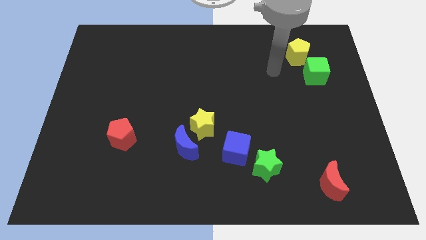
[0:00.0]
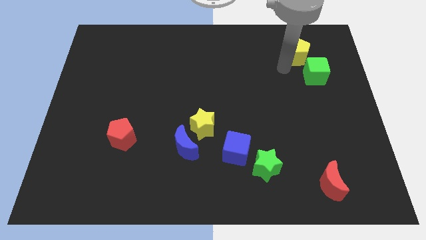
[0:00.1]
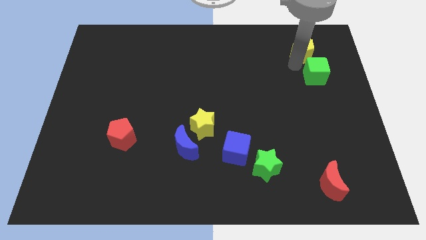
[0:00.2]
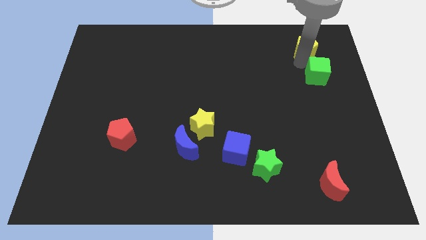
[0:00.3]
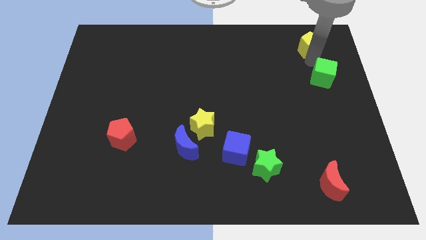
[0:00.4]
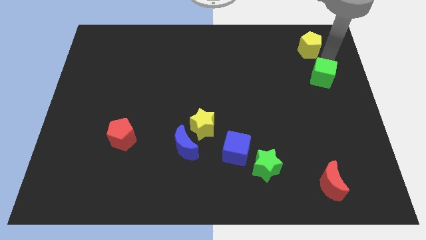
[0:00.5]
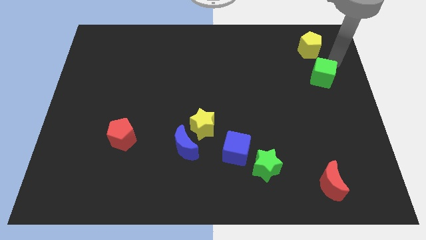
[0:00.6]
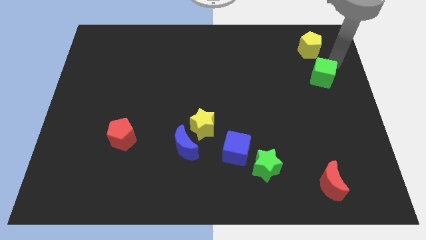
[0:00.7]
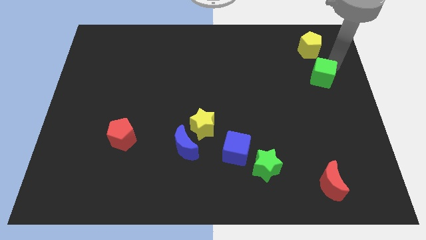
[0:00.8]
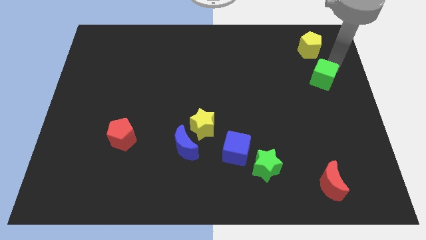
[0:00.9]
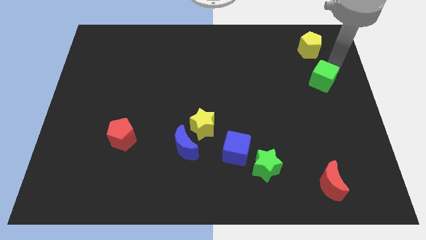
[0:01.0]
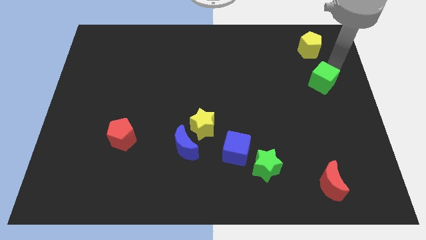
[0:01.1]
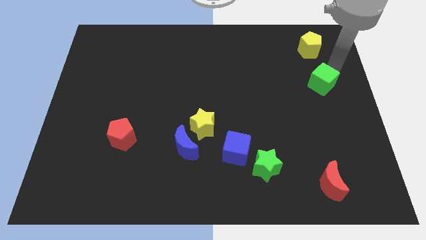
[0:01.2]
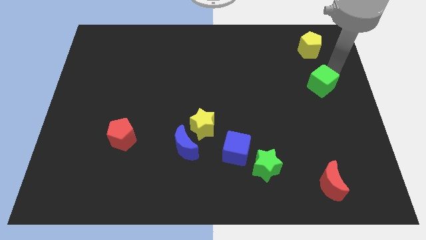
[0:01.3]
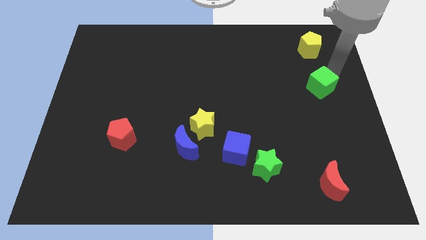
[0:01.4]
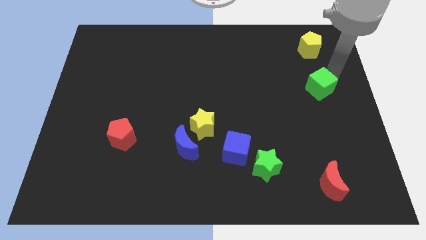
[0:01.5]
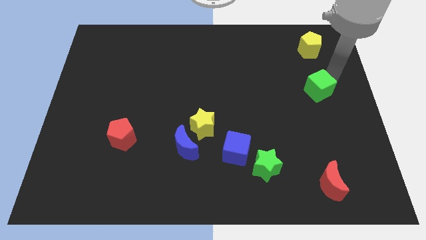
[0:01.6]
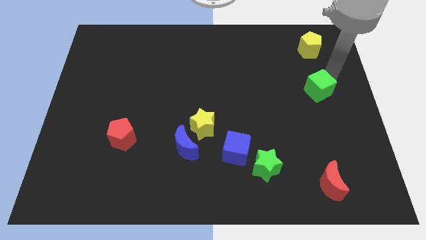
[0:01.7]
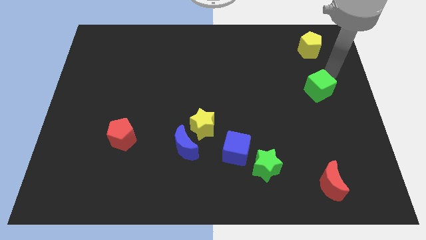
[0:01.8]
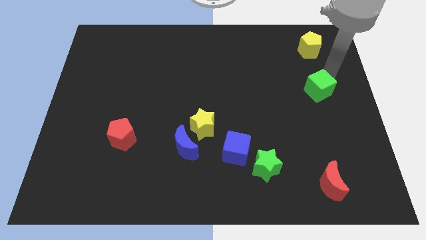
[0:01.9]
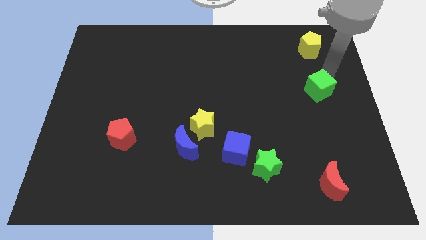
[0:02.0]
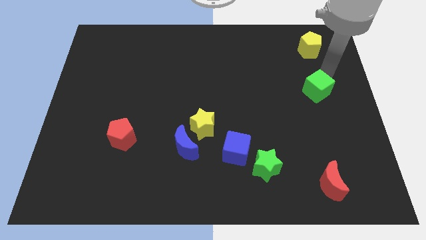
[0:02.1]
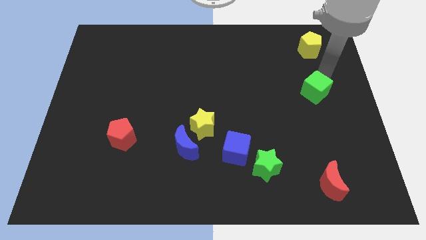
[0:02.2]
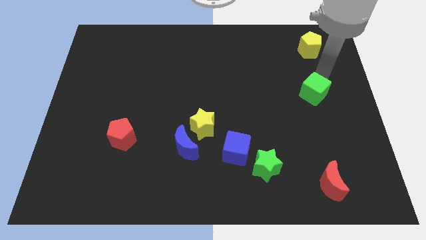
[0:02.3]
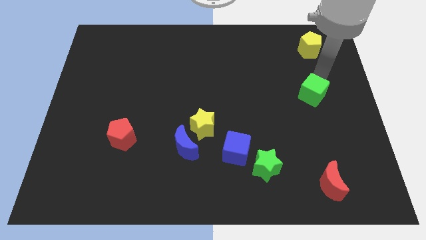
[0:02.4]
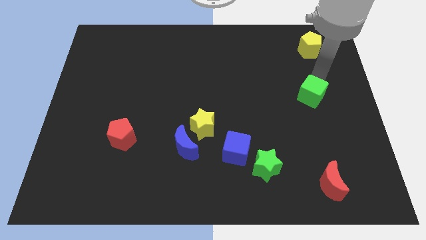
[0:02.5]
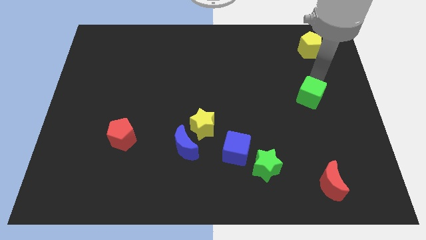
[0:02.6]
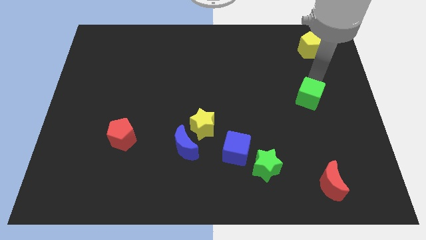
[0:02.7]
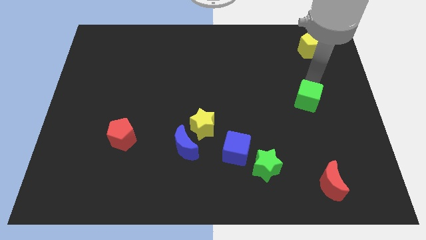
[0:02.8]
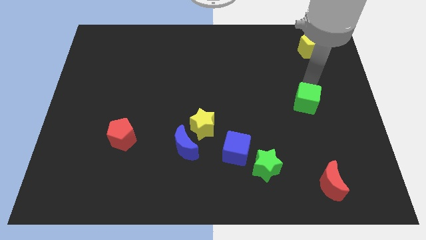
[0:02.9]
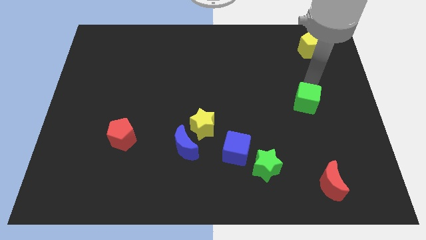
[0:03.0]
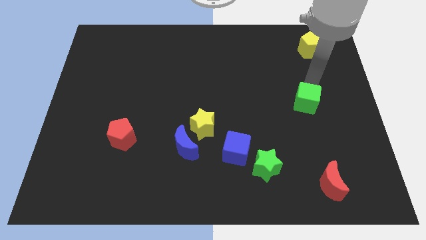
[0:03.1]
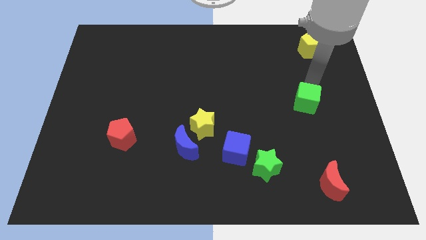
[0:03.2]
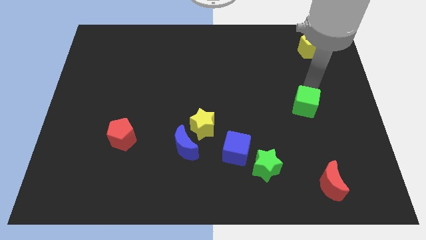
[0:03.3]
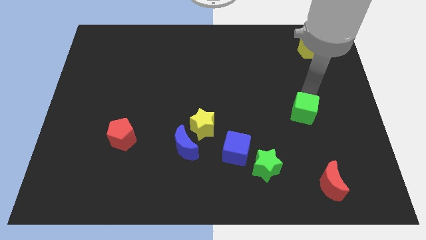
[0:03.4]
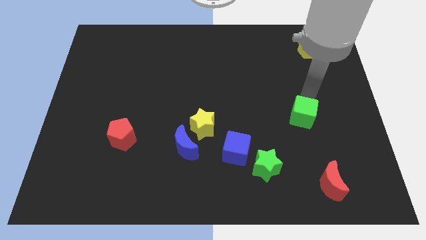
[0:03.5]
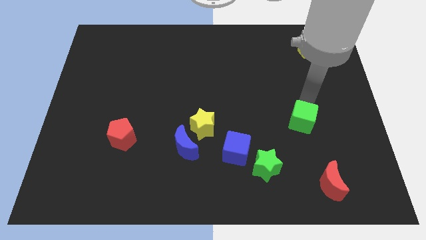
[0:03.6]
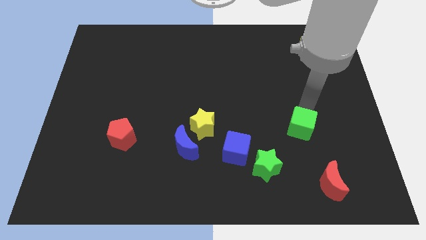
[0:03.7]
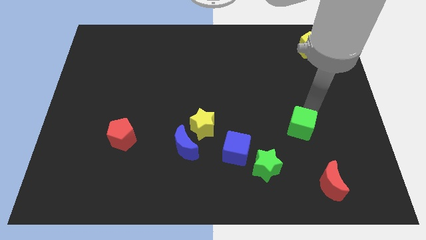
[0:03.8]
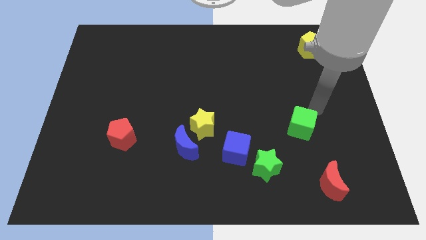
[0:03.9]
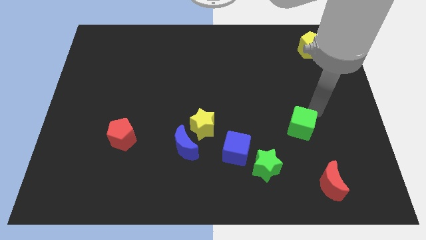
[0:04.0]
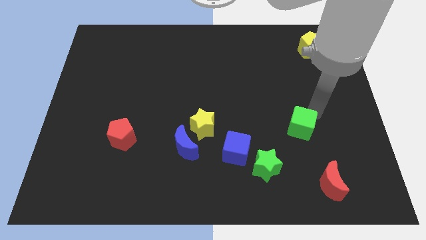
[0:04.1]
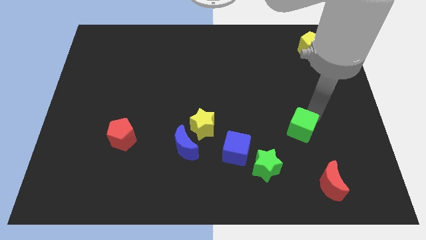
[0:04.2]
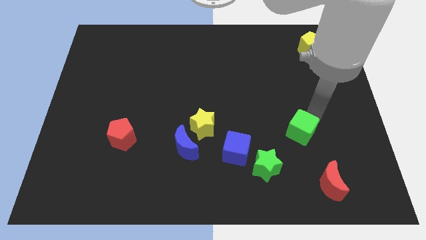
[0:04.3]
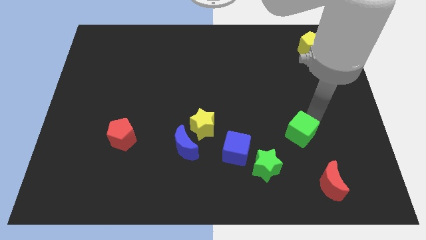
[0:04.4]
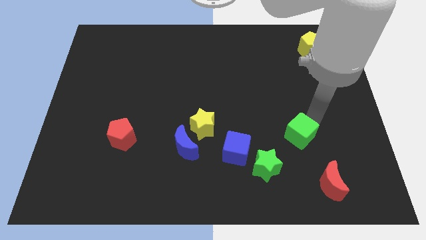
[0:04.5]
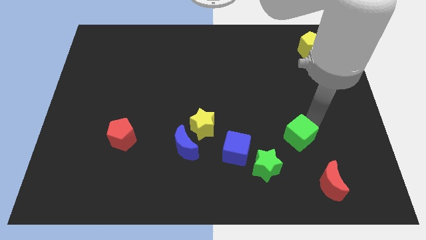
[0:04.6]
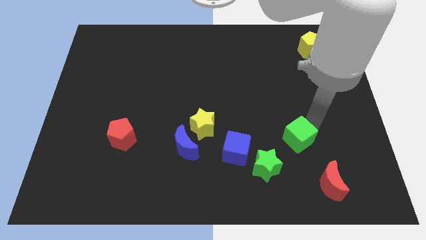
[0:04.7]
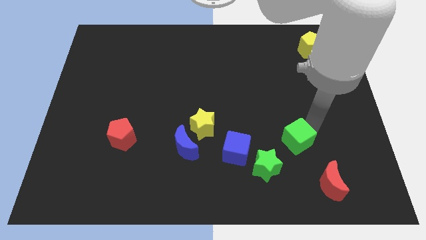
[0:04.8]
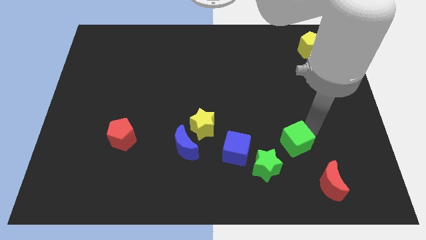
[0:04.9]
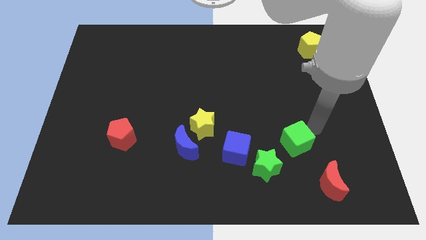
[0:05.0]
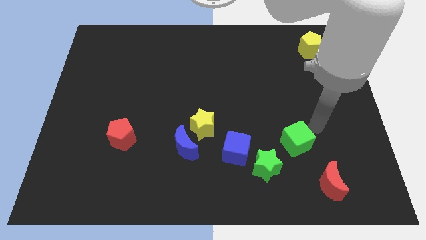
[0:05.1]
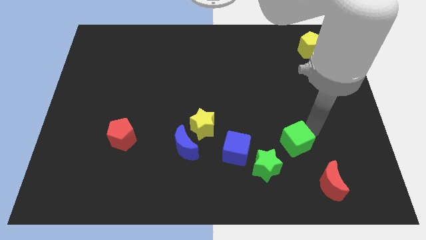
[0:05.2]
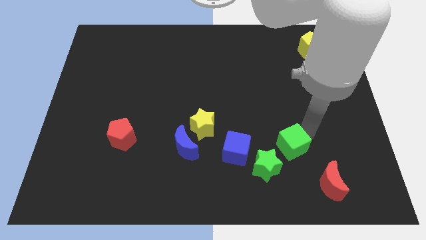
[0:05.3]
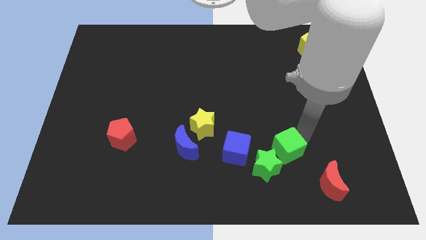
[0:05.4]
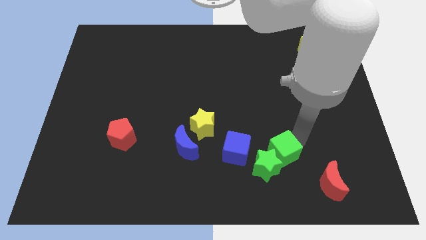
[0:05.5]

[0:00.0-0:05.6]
put the green cube close to the green star

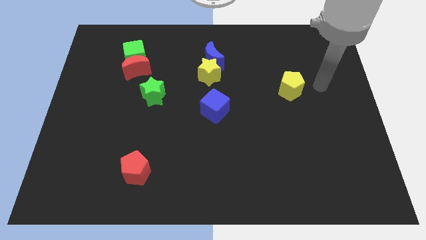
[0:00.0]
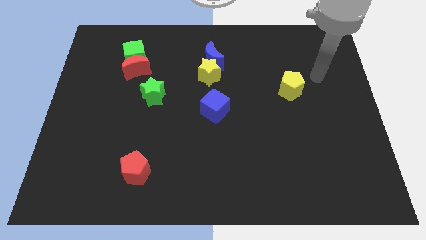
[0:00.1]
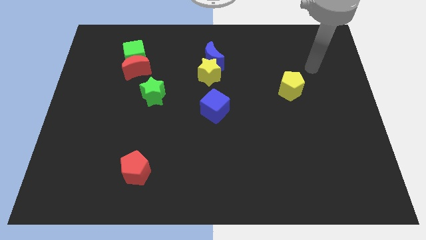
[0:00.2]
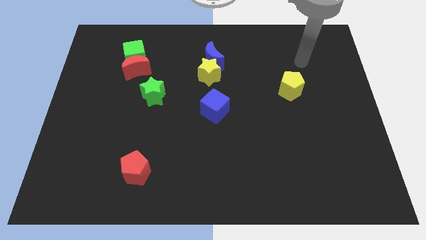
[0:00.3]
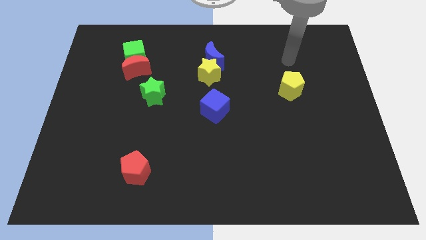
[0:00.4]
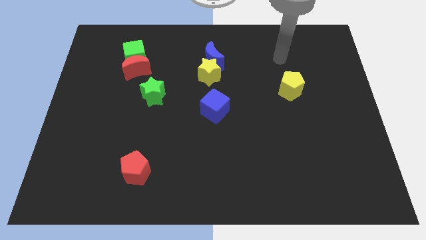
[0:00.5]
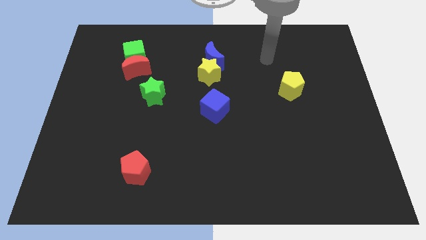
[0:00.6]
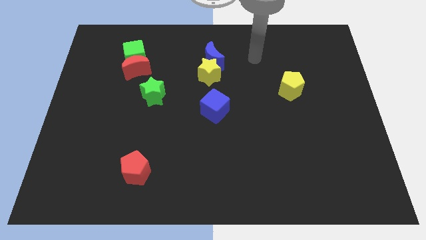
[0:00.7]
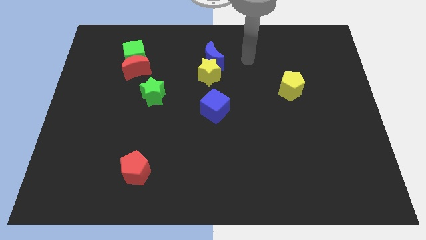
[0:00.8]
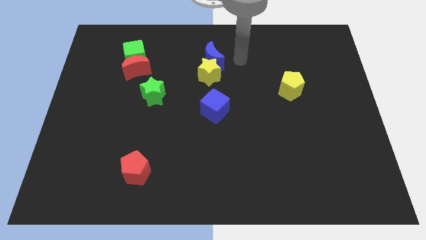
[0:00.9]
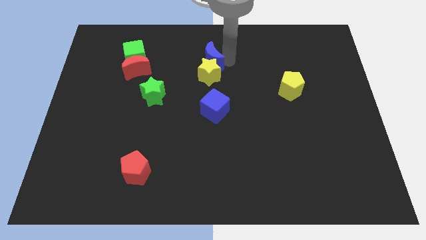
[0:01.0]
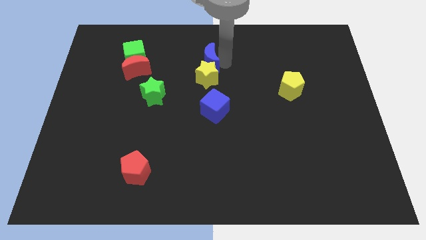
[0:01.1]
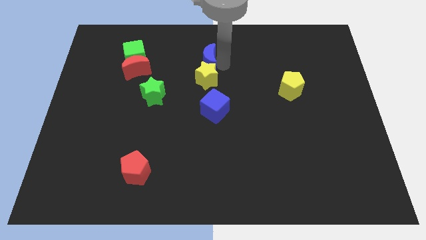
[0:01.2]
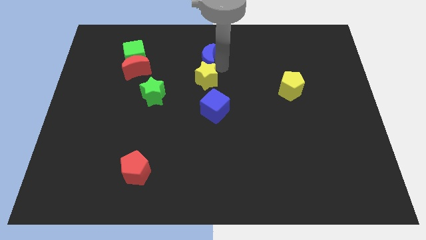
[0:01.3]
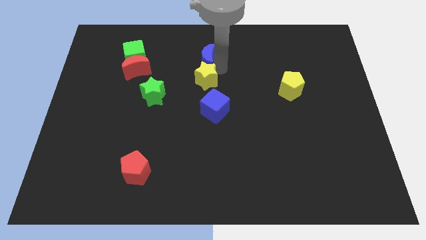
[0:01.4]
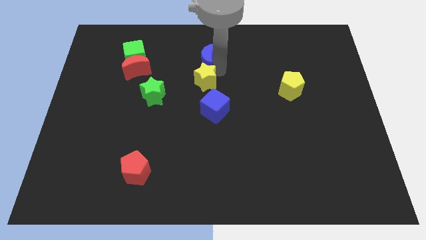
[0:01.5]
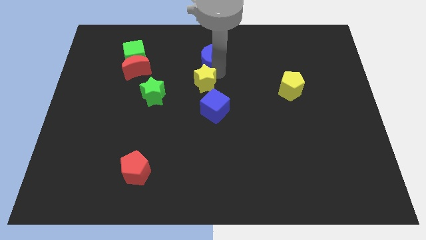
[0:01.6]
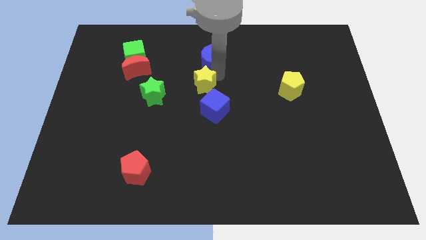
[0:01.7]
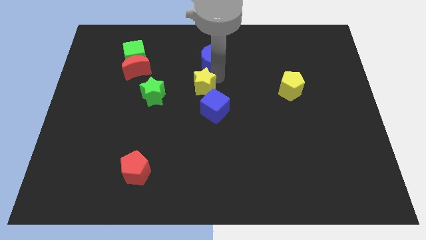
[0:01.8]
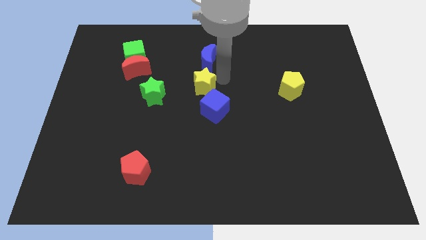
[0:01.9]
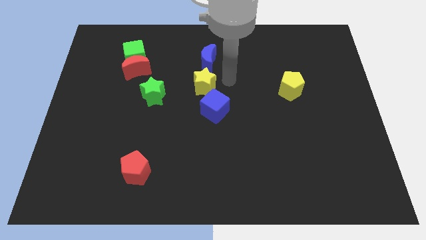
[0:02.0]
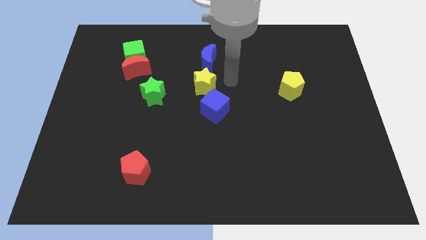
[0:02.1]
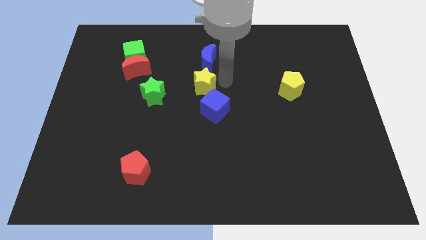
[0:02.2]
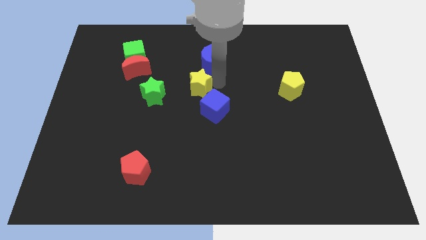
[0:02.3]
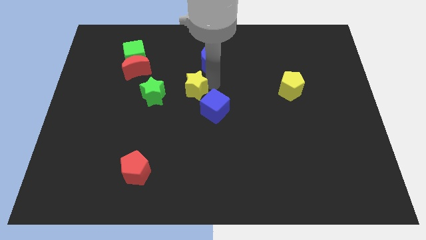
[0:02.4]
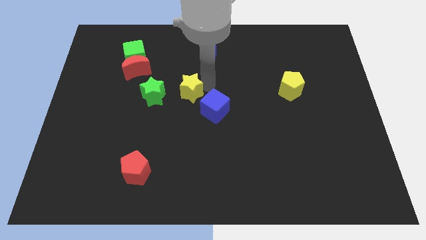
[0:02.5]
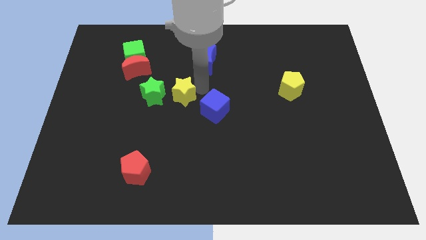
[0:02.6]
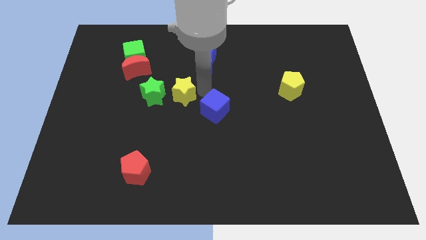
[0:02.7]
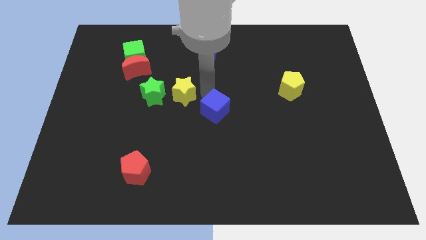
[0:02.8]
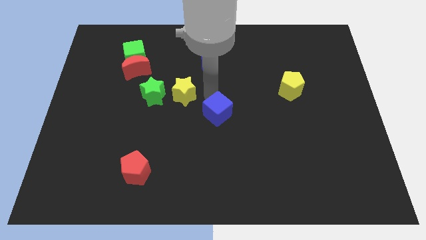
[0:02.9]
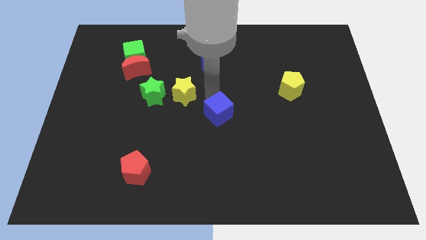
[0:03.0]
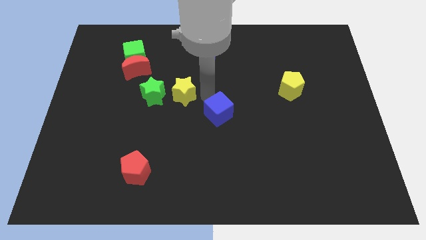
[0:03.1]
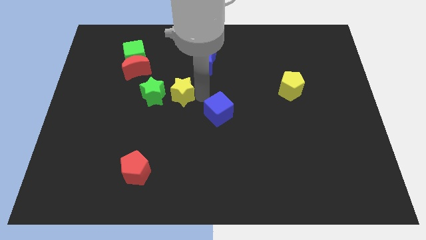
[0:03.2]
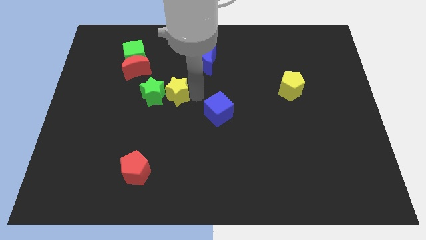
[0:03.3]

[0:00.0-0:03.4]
move the yellow star towards the green star
